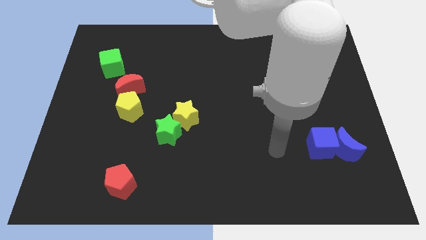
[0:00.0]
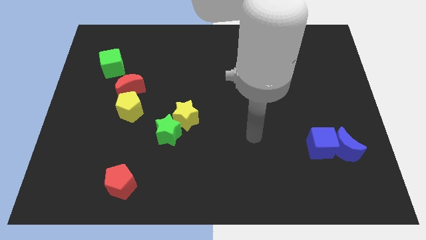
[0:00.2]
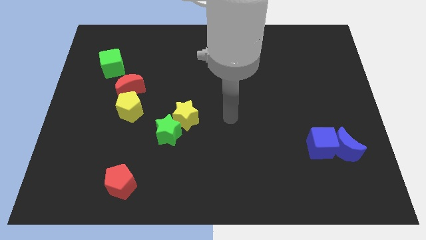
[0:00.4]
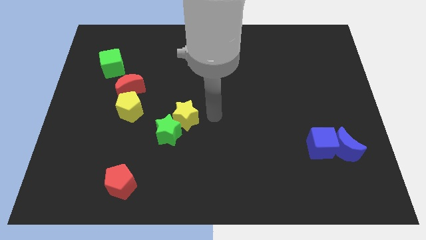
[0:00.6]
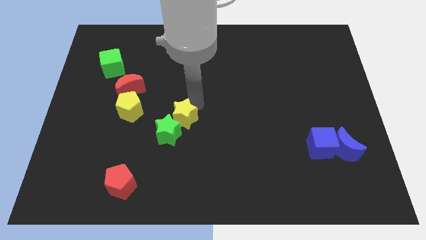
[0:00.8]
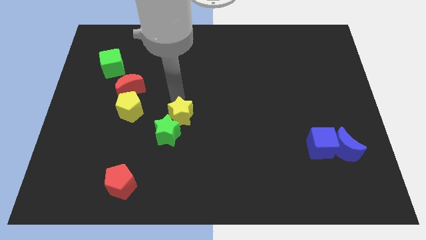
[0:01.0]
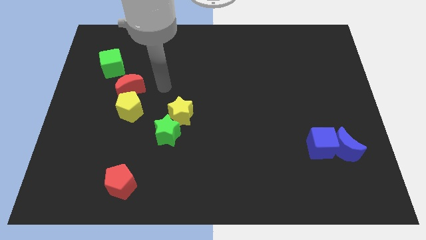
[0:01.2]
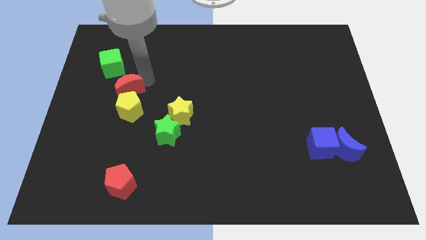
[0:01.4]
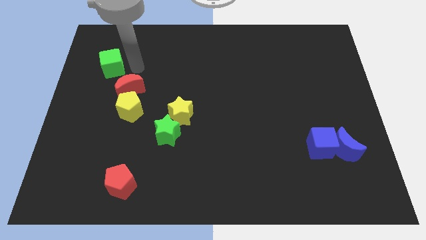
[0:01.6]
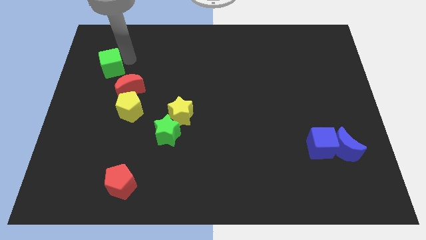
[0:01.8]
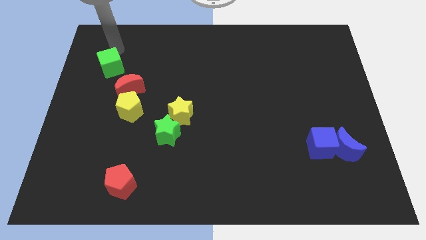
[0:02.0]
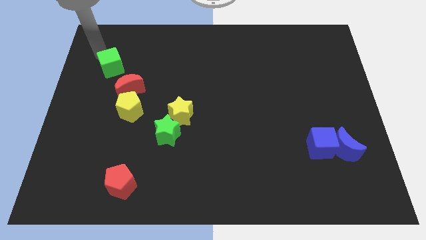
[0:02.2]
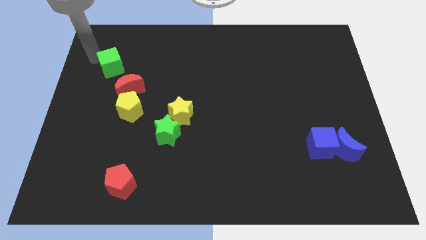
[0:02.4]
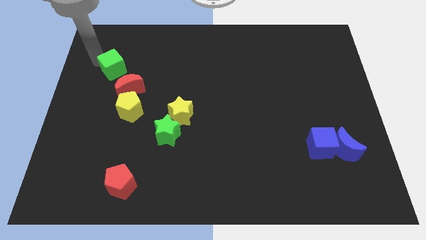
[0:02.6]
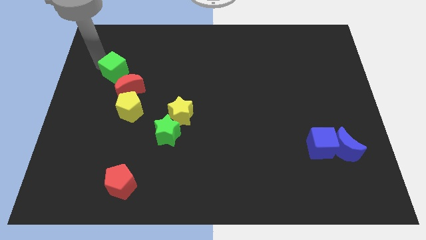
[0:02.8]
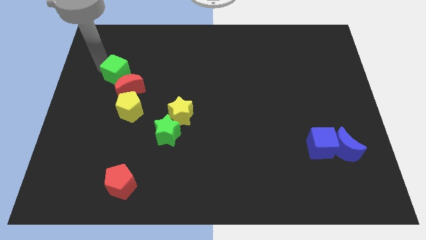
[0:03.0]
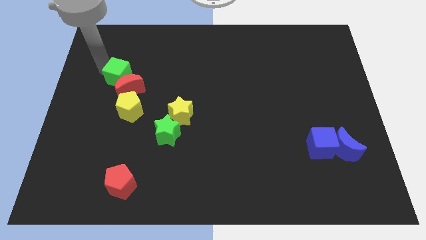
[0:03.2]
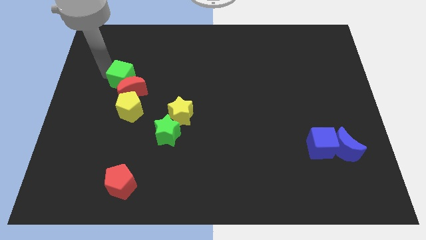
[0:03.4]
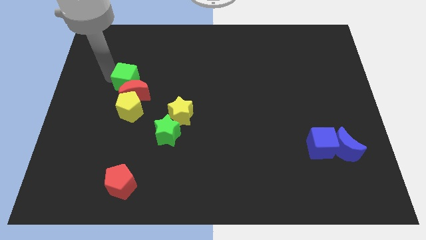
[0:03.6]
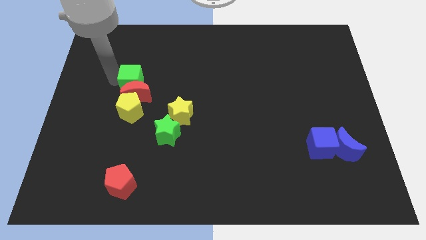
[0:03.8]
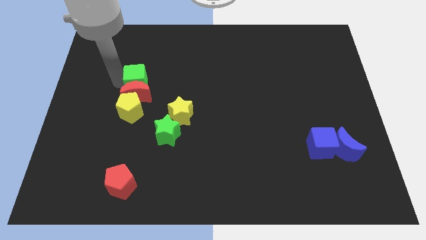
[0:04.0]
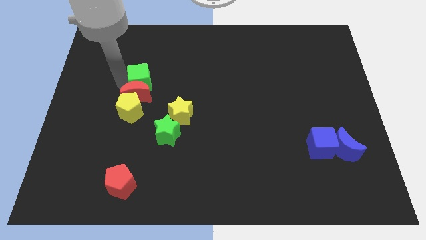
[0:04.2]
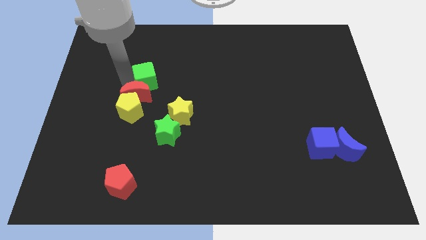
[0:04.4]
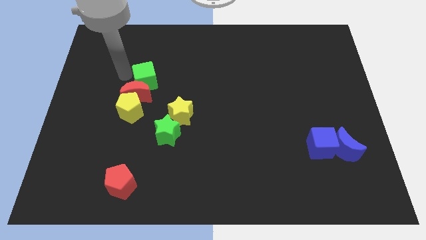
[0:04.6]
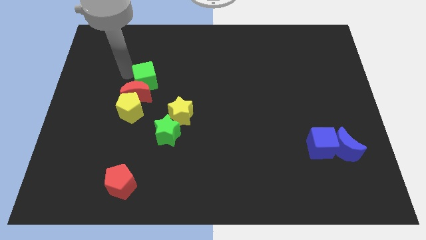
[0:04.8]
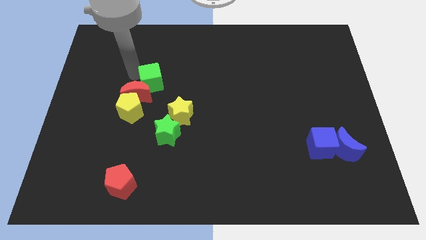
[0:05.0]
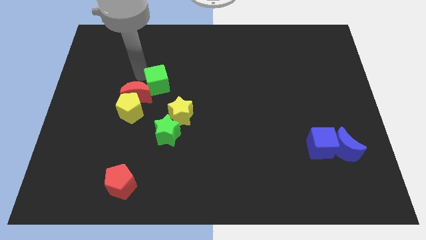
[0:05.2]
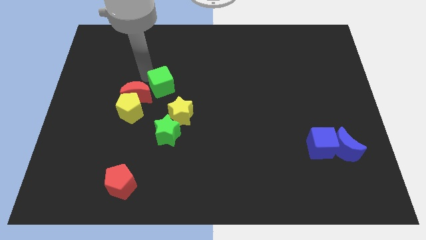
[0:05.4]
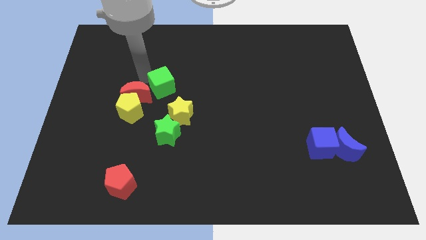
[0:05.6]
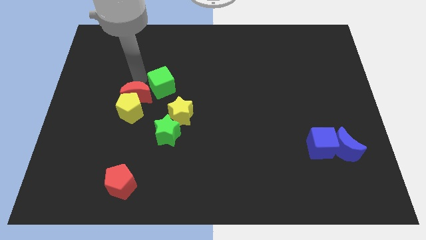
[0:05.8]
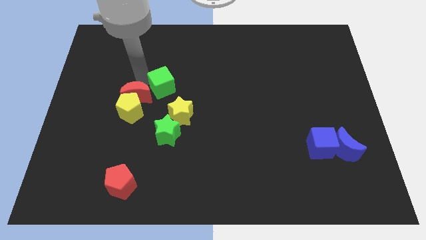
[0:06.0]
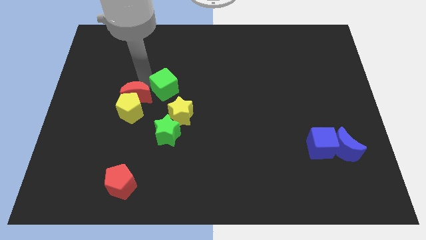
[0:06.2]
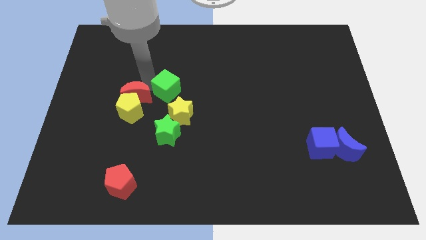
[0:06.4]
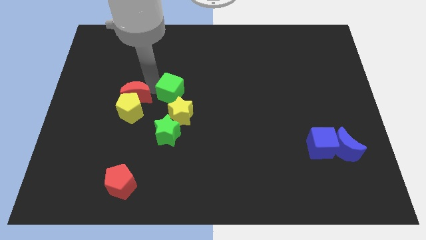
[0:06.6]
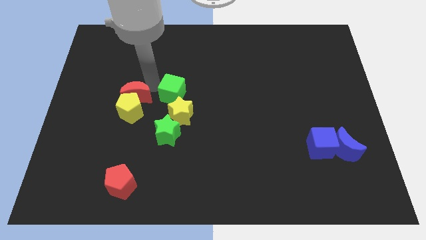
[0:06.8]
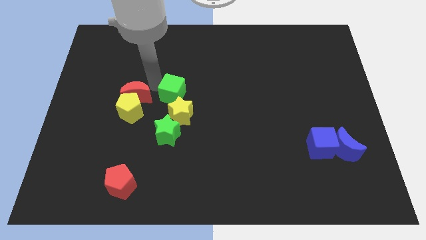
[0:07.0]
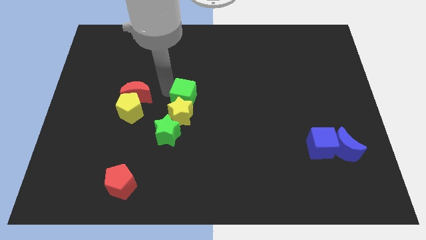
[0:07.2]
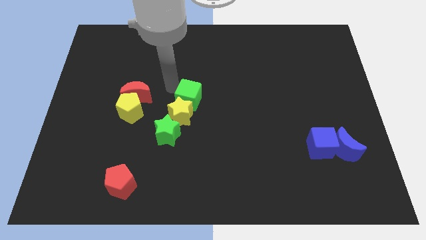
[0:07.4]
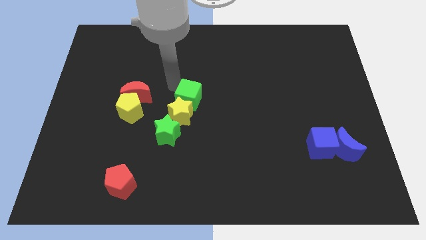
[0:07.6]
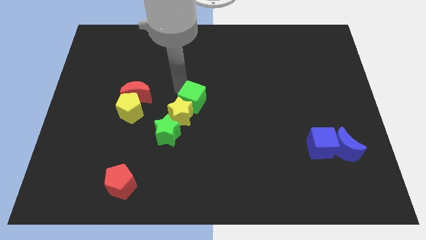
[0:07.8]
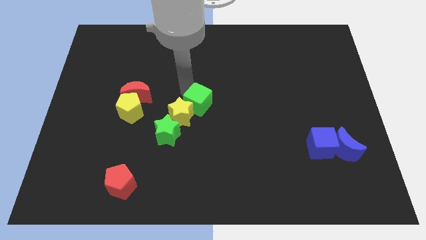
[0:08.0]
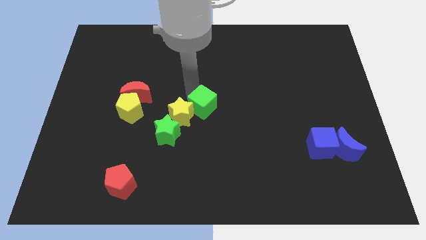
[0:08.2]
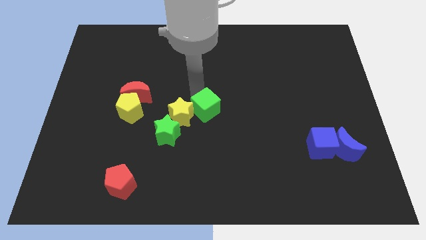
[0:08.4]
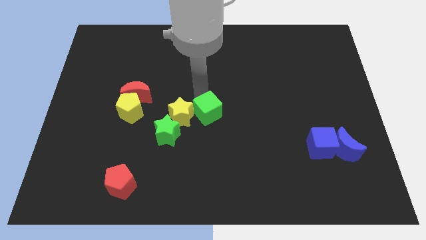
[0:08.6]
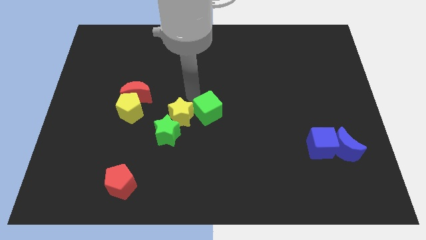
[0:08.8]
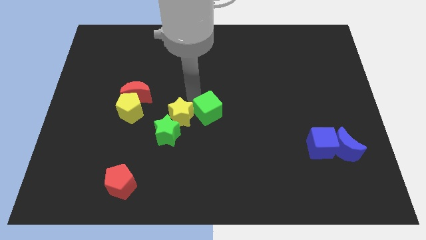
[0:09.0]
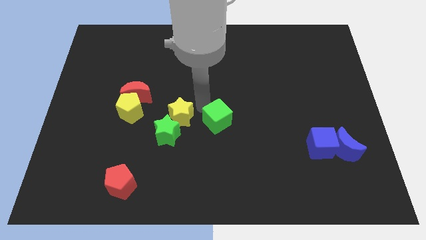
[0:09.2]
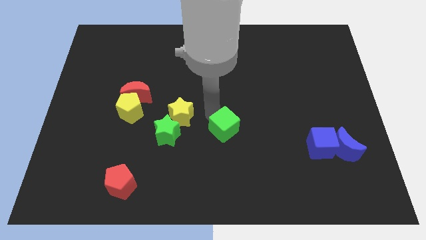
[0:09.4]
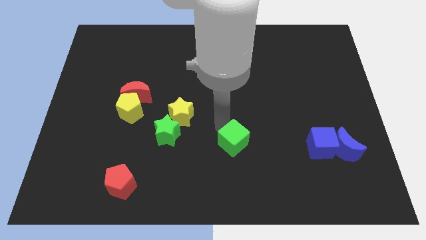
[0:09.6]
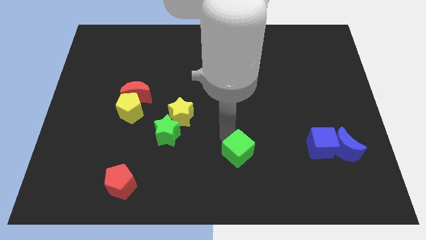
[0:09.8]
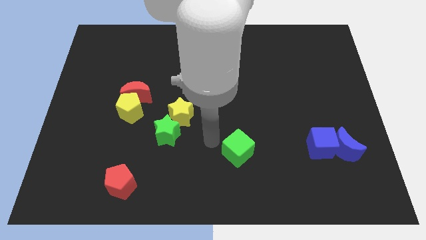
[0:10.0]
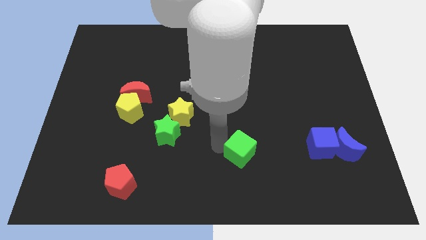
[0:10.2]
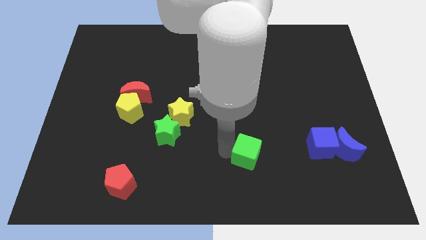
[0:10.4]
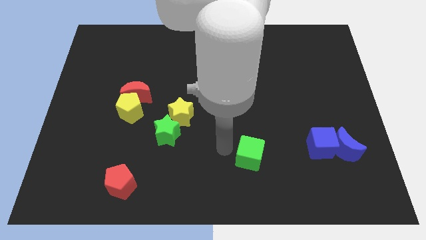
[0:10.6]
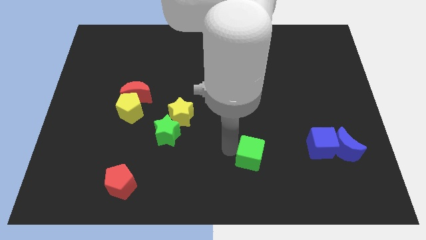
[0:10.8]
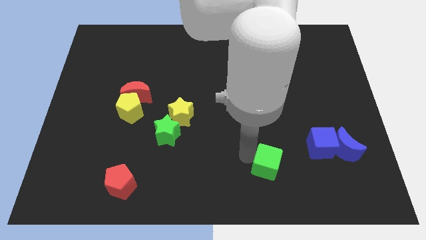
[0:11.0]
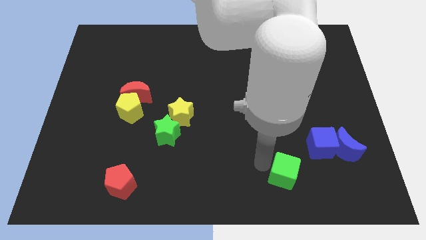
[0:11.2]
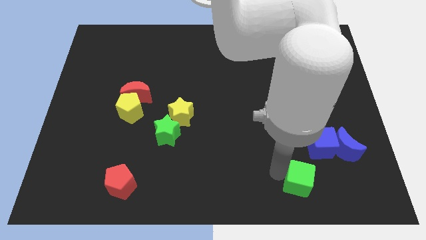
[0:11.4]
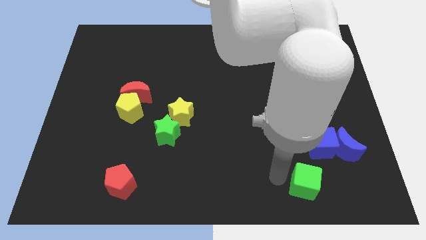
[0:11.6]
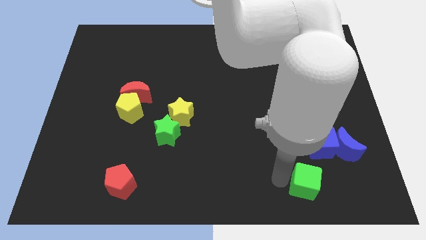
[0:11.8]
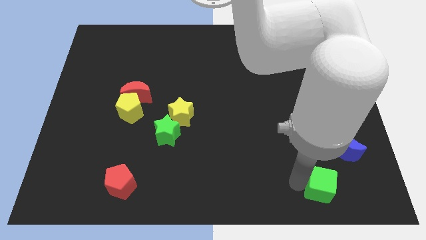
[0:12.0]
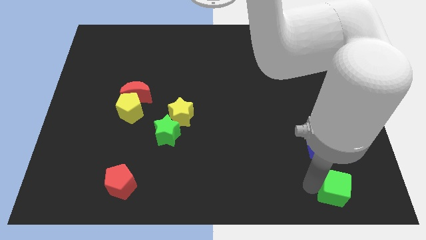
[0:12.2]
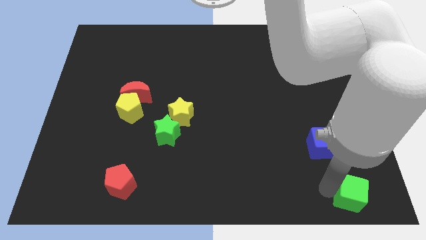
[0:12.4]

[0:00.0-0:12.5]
move the green cube to the lower right corner
